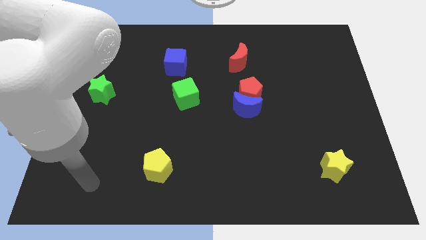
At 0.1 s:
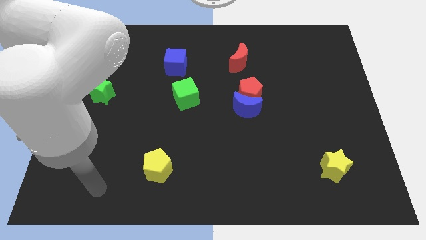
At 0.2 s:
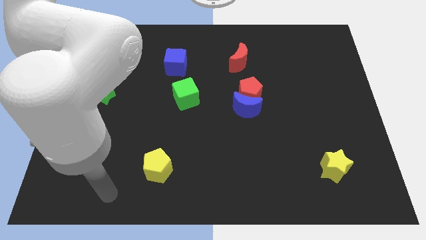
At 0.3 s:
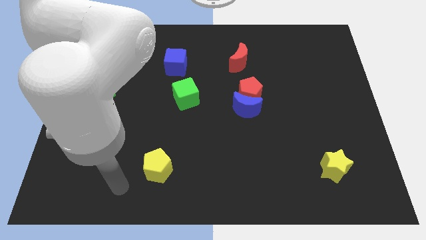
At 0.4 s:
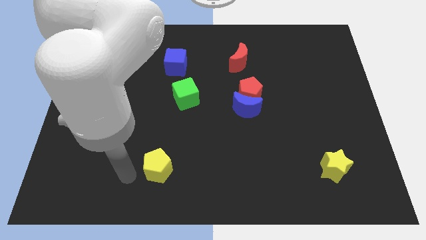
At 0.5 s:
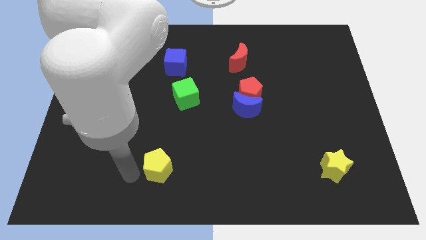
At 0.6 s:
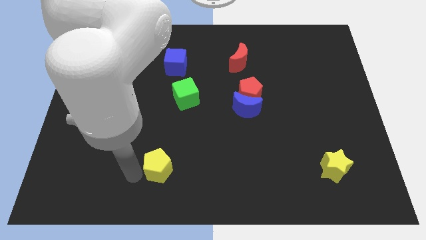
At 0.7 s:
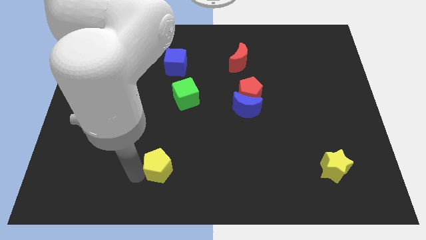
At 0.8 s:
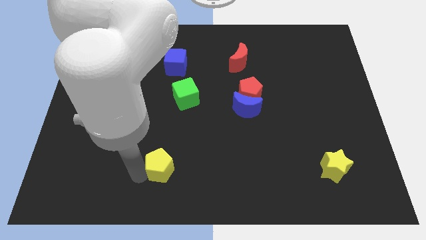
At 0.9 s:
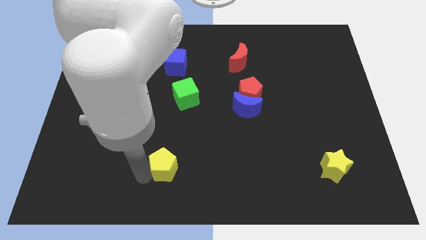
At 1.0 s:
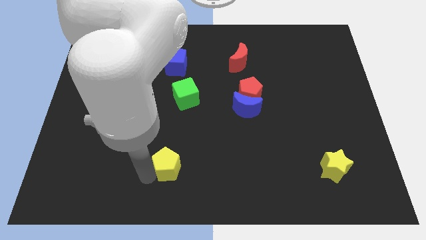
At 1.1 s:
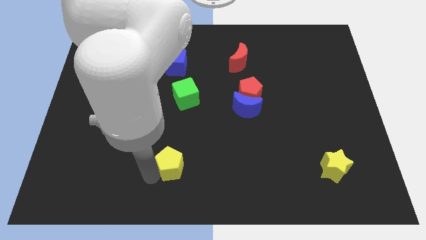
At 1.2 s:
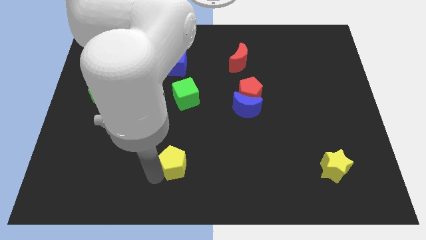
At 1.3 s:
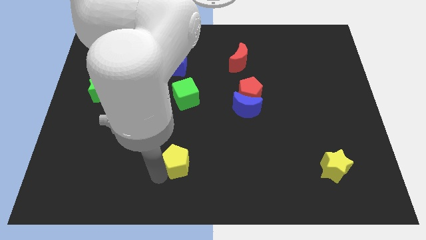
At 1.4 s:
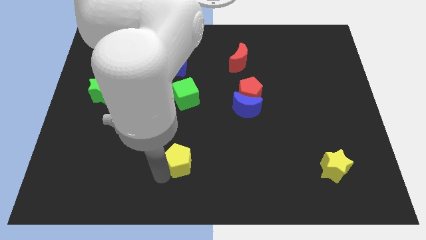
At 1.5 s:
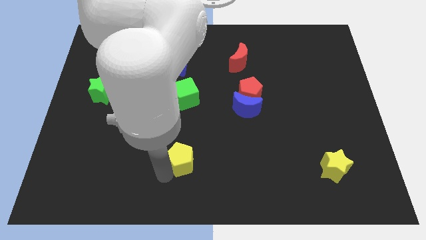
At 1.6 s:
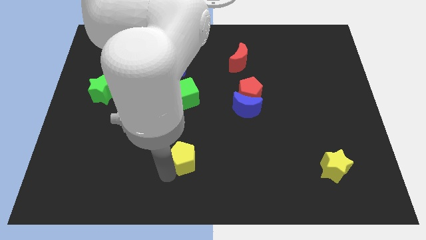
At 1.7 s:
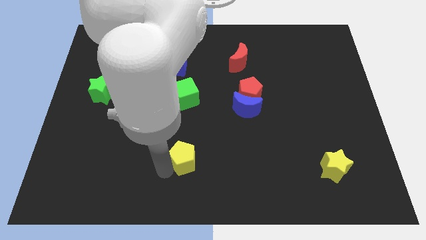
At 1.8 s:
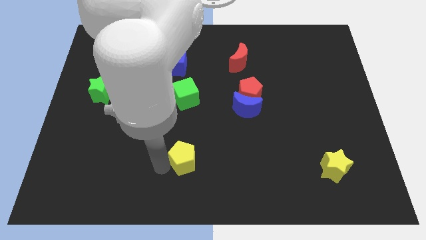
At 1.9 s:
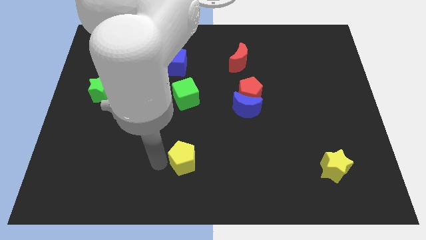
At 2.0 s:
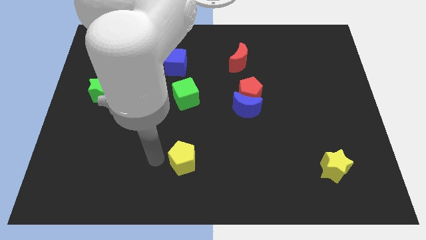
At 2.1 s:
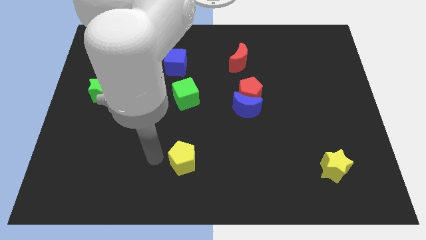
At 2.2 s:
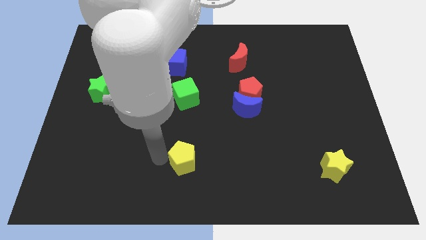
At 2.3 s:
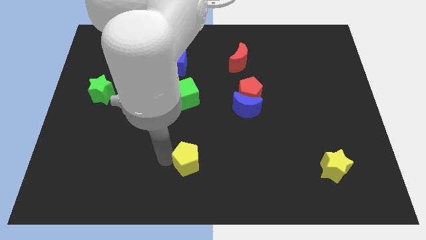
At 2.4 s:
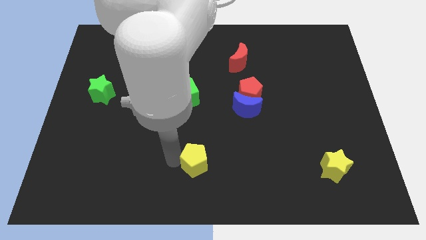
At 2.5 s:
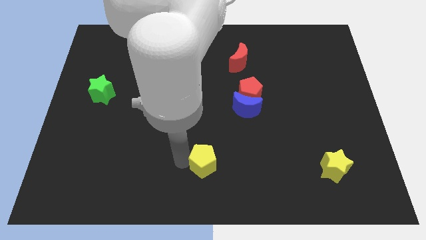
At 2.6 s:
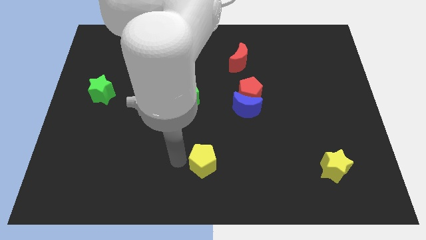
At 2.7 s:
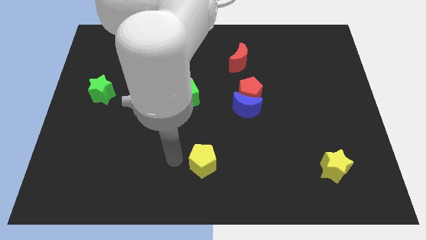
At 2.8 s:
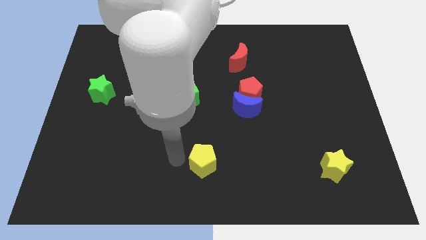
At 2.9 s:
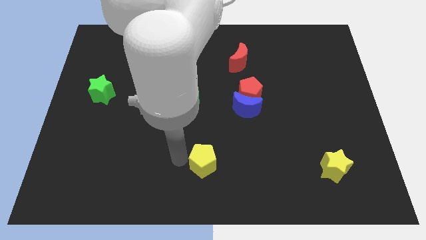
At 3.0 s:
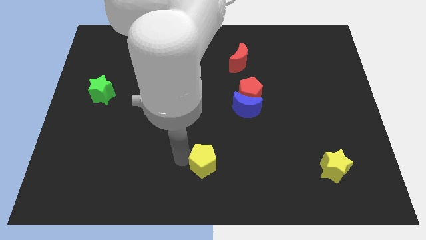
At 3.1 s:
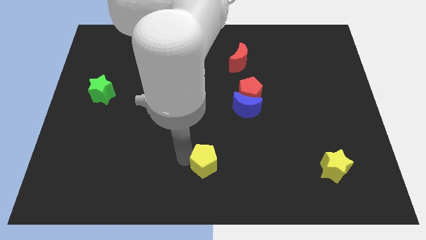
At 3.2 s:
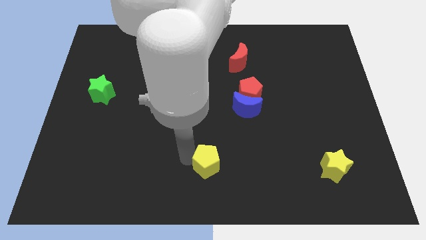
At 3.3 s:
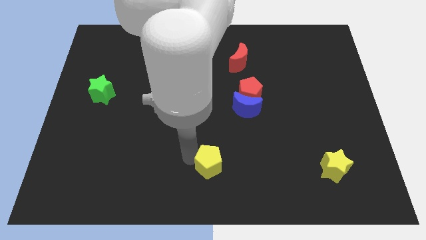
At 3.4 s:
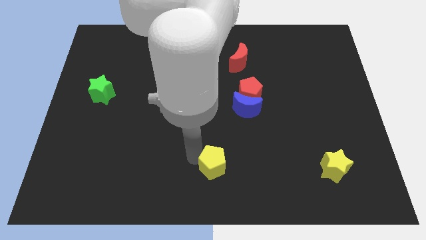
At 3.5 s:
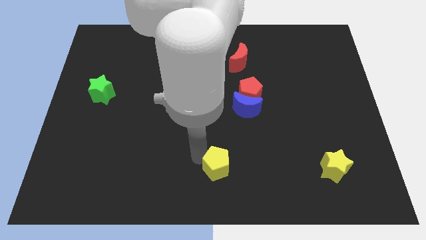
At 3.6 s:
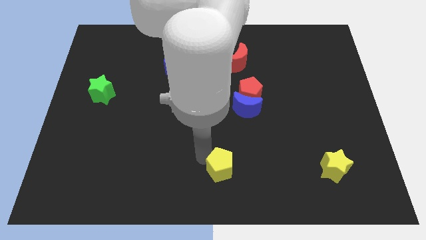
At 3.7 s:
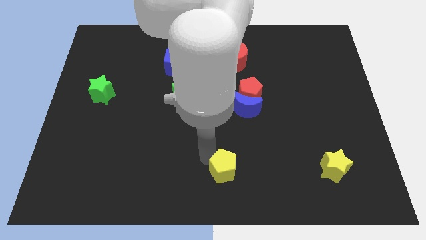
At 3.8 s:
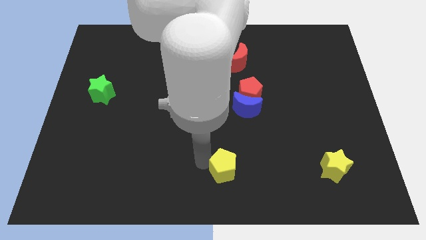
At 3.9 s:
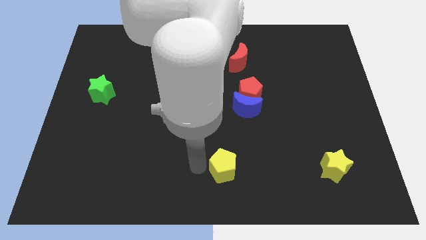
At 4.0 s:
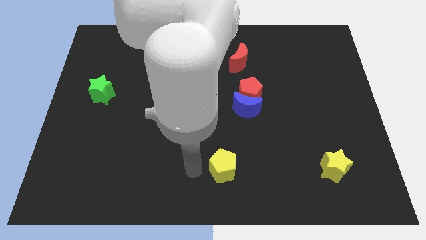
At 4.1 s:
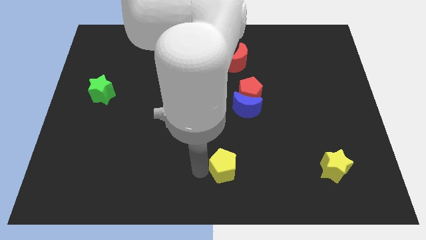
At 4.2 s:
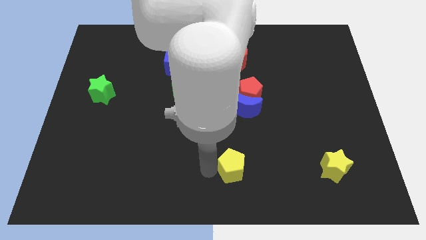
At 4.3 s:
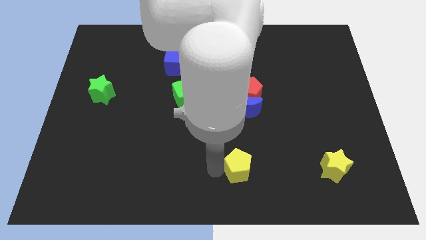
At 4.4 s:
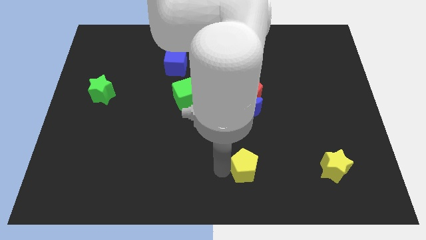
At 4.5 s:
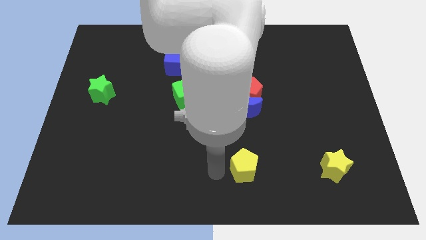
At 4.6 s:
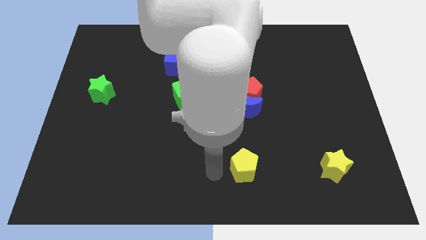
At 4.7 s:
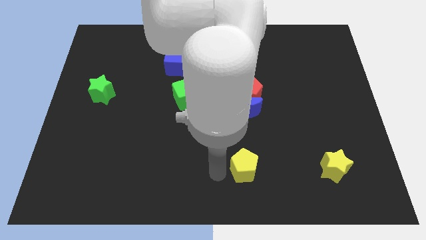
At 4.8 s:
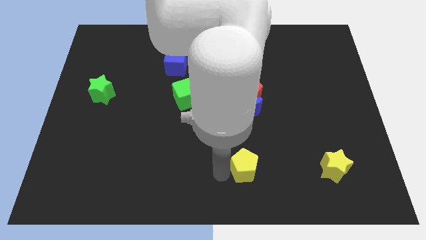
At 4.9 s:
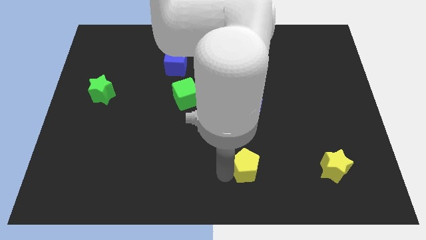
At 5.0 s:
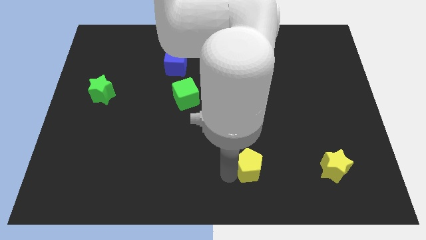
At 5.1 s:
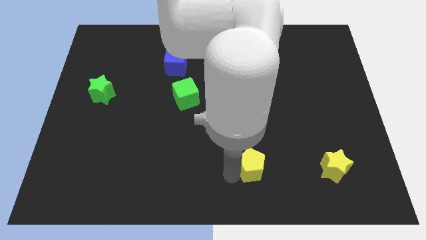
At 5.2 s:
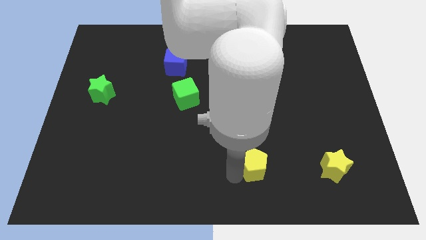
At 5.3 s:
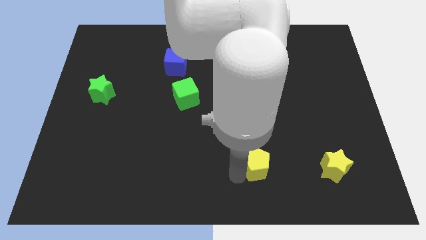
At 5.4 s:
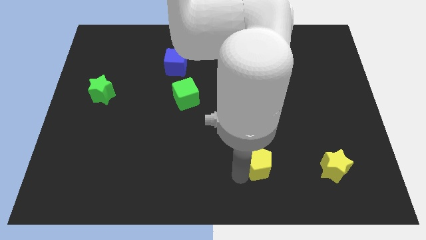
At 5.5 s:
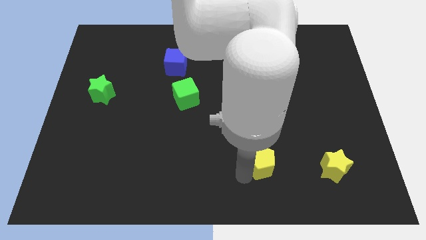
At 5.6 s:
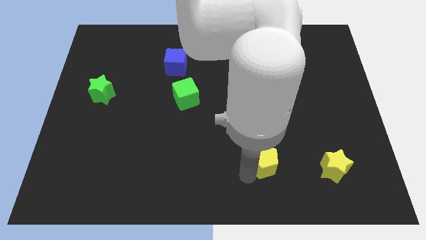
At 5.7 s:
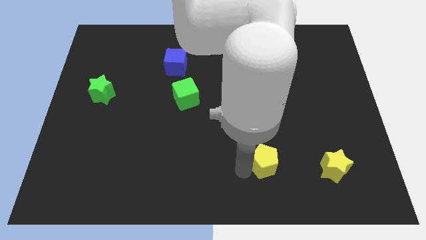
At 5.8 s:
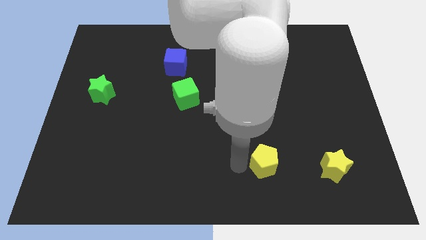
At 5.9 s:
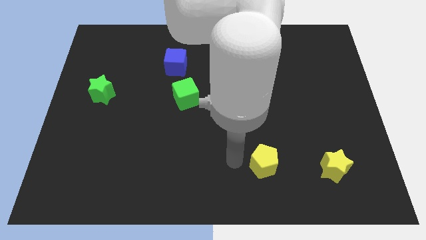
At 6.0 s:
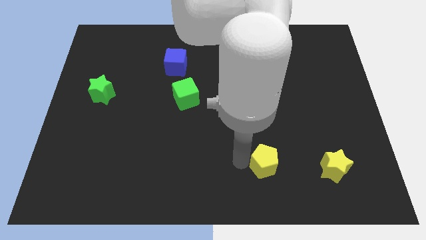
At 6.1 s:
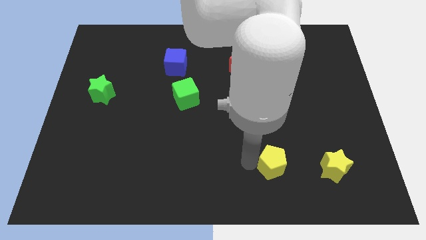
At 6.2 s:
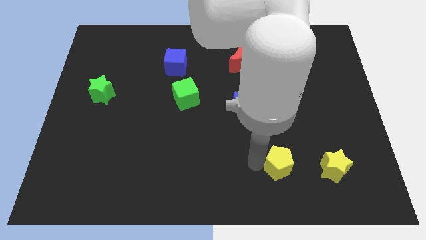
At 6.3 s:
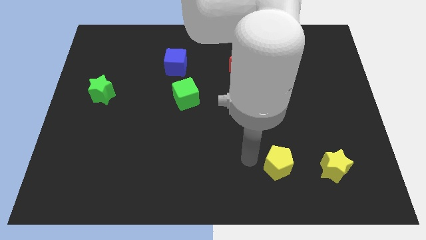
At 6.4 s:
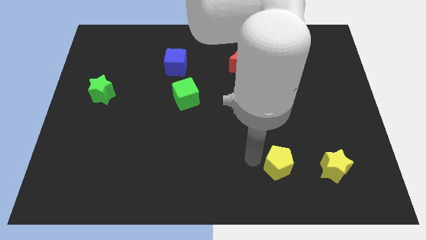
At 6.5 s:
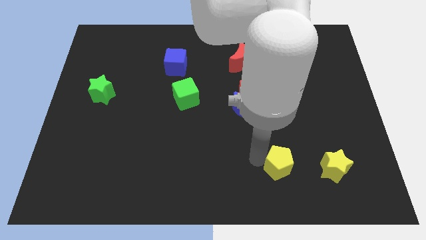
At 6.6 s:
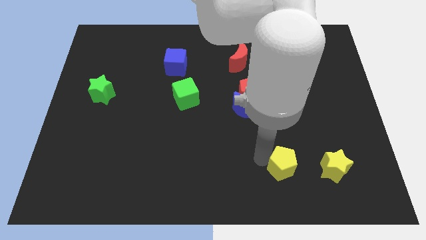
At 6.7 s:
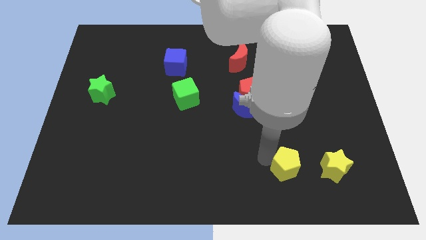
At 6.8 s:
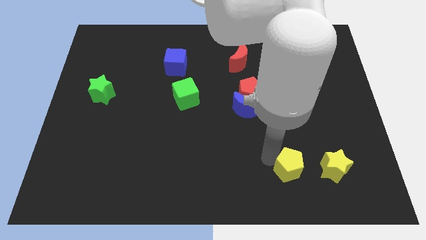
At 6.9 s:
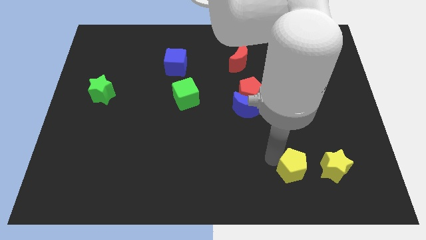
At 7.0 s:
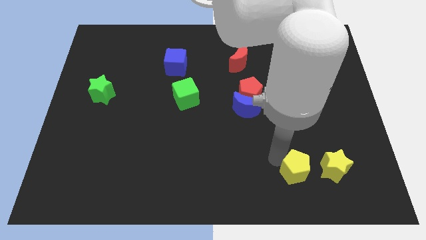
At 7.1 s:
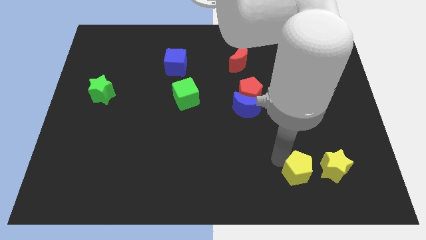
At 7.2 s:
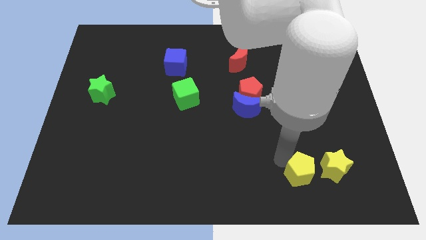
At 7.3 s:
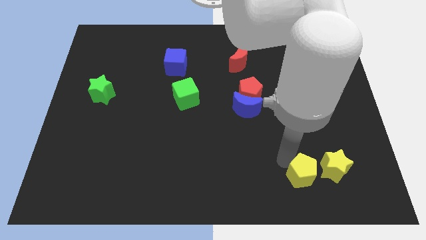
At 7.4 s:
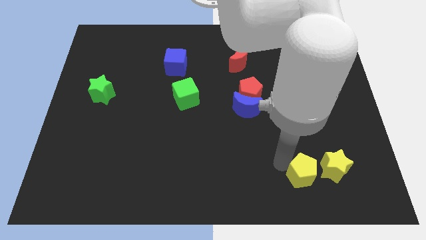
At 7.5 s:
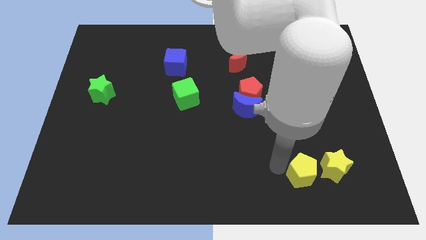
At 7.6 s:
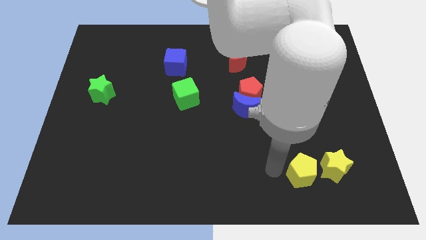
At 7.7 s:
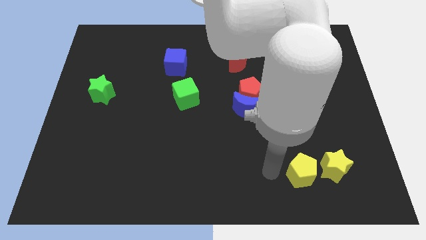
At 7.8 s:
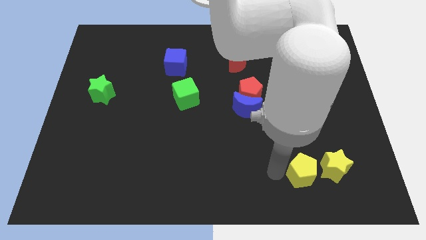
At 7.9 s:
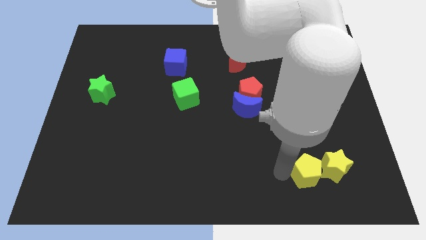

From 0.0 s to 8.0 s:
push the yellow pentagon to the yellow star
